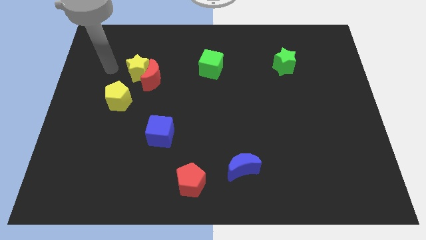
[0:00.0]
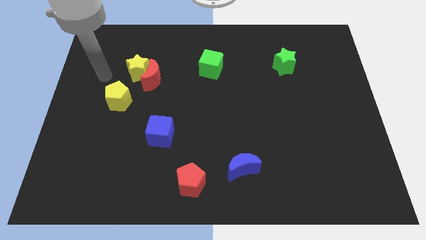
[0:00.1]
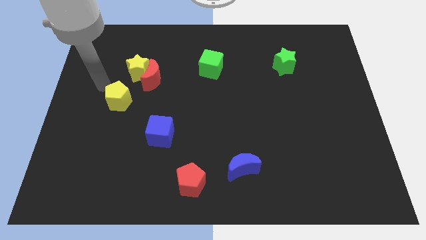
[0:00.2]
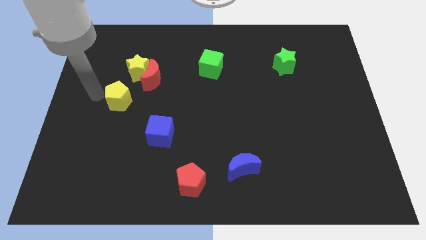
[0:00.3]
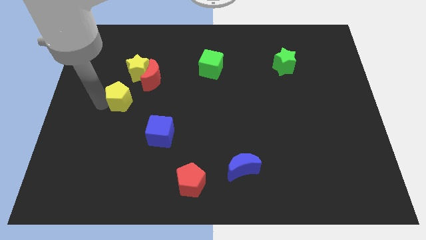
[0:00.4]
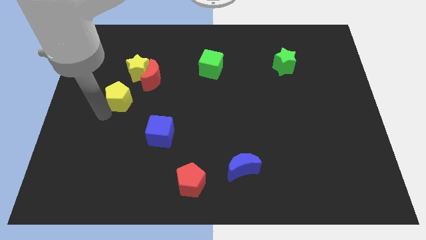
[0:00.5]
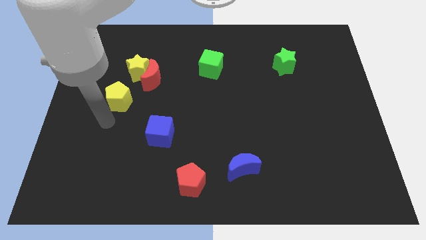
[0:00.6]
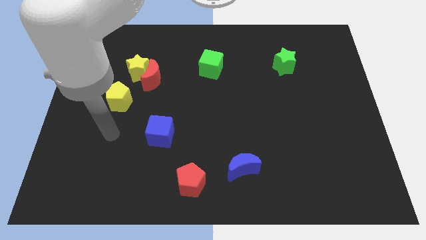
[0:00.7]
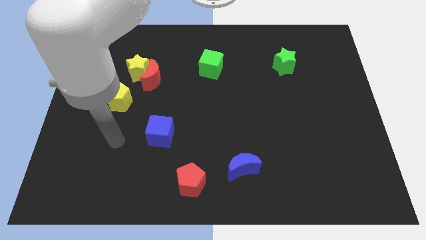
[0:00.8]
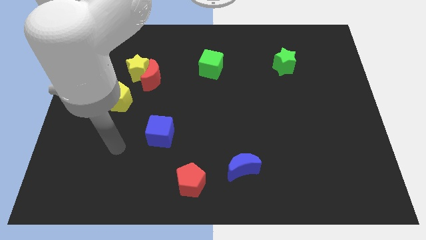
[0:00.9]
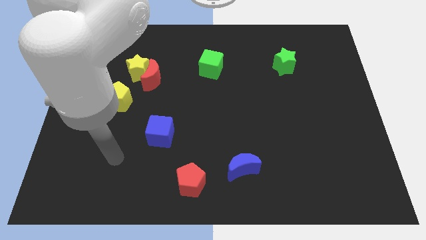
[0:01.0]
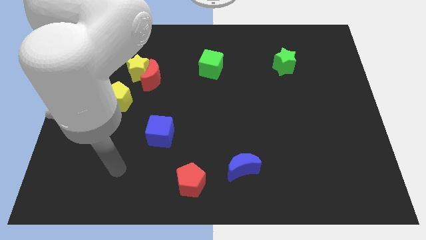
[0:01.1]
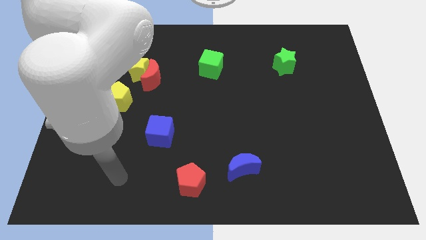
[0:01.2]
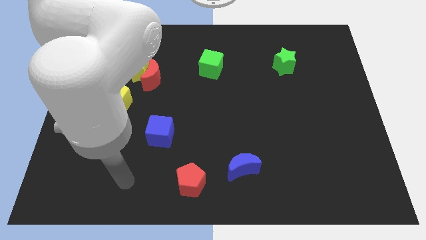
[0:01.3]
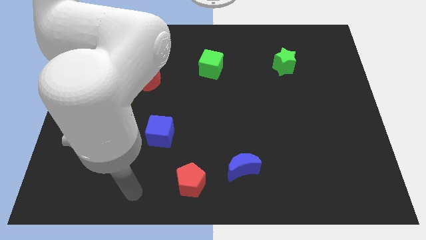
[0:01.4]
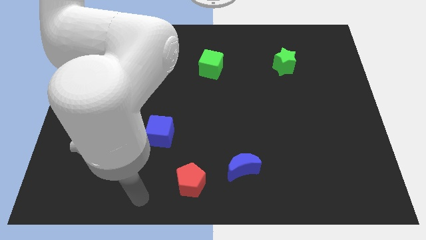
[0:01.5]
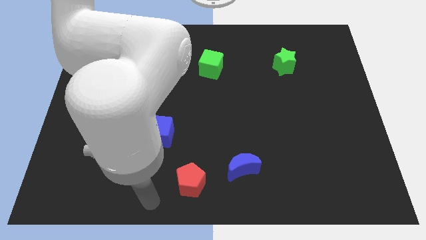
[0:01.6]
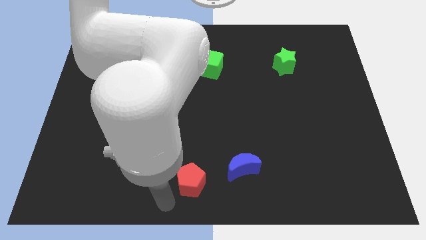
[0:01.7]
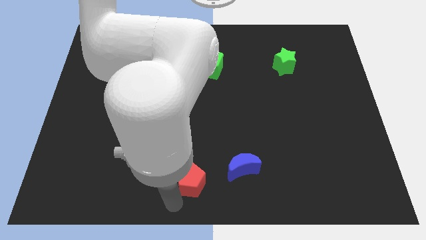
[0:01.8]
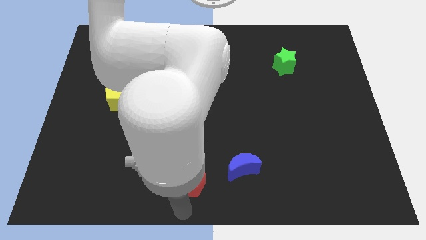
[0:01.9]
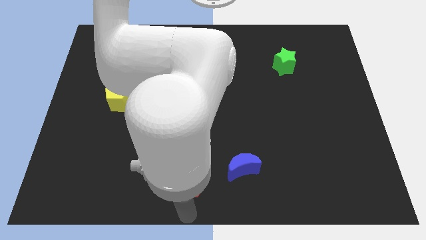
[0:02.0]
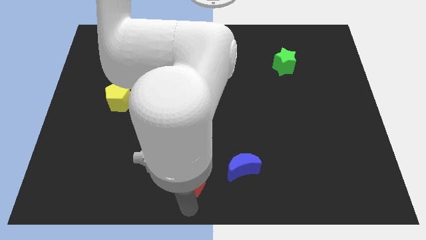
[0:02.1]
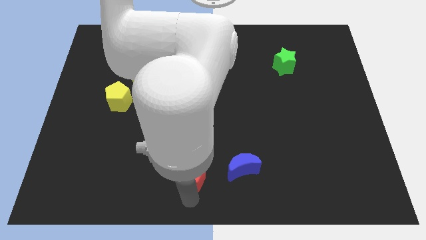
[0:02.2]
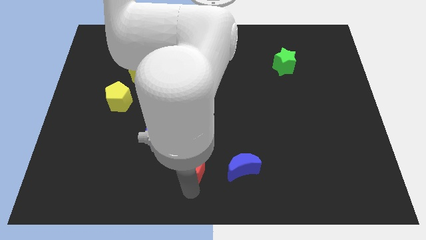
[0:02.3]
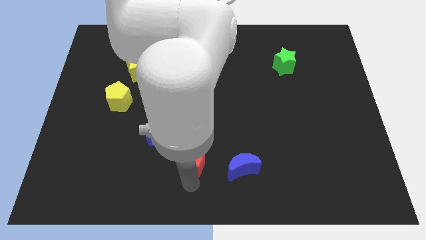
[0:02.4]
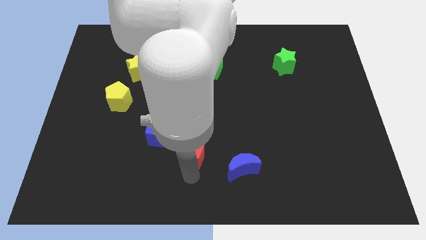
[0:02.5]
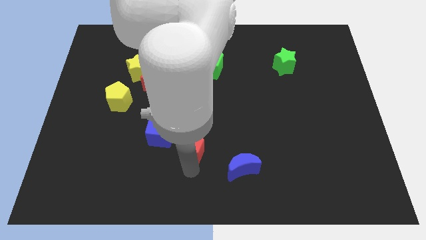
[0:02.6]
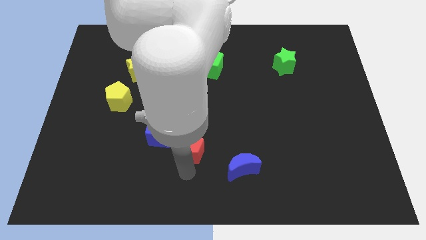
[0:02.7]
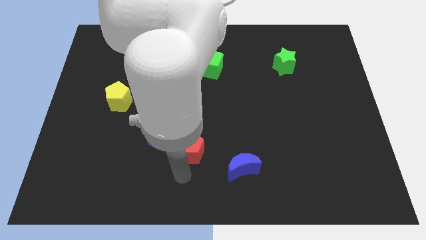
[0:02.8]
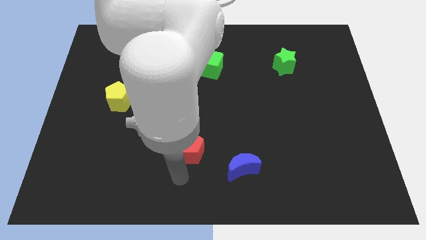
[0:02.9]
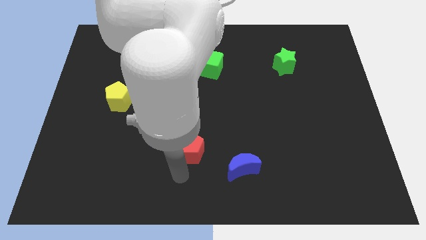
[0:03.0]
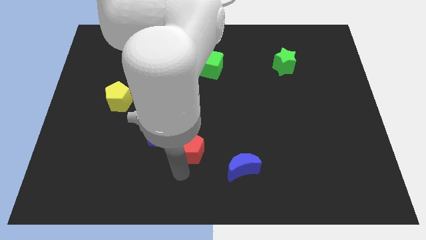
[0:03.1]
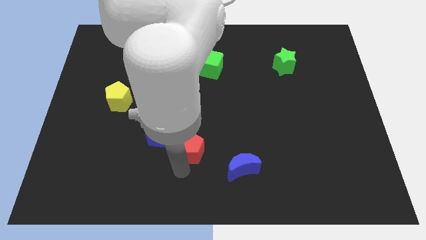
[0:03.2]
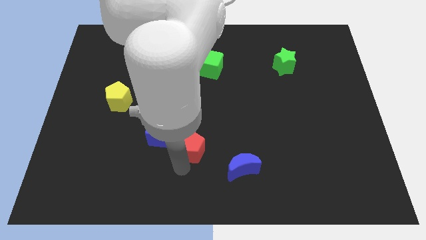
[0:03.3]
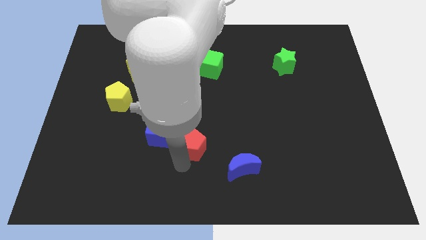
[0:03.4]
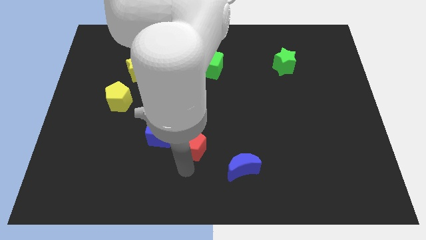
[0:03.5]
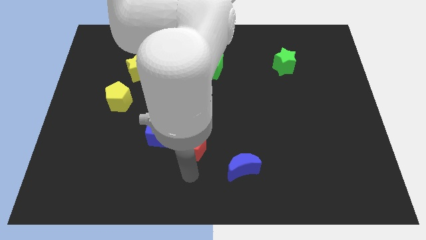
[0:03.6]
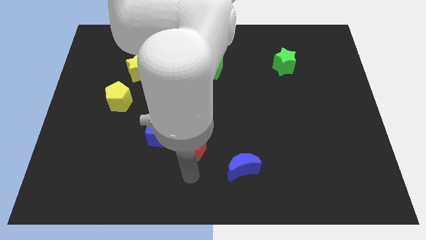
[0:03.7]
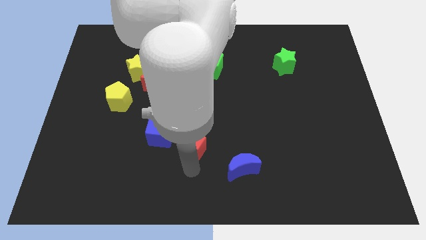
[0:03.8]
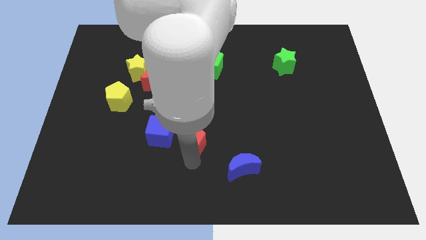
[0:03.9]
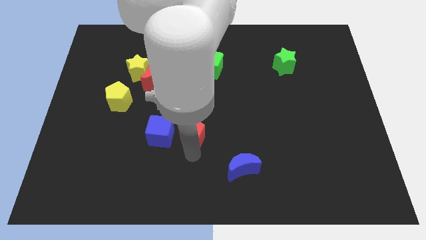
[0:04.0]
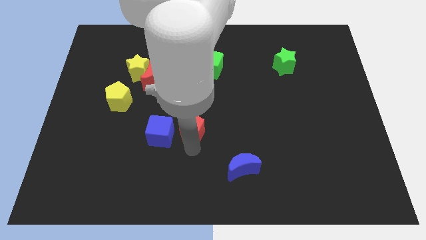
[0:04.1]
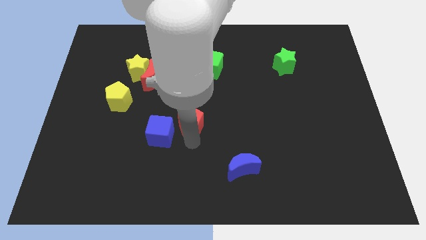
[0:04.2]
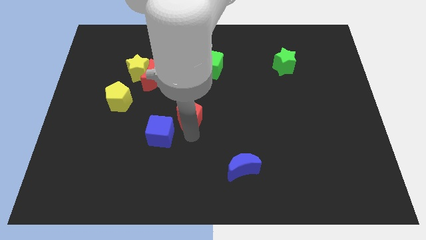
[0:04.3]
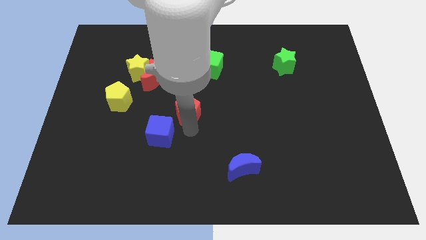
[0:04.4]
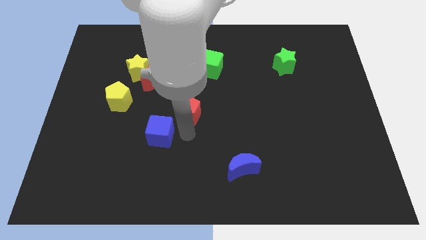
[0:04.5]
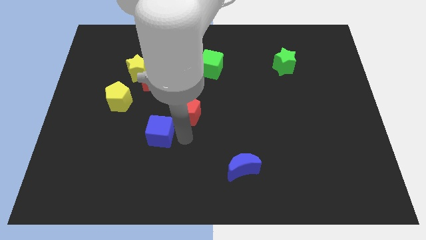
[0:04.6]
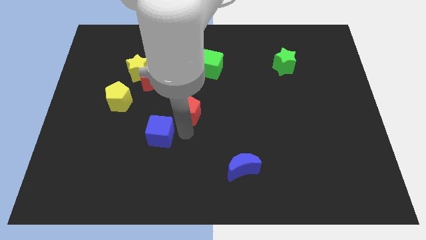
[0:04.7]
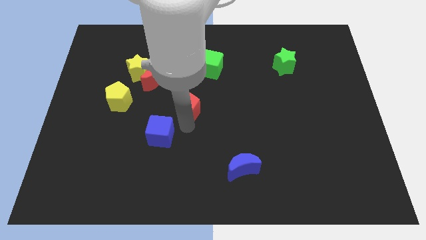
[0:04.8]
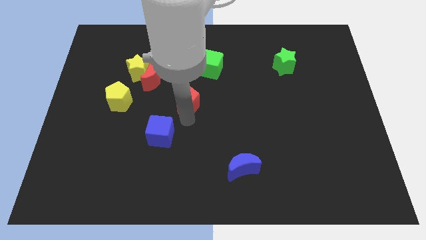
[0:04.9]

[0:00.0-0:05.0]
slide the red pentagon upwards

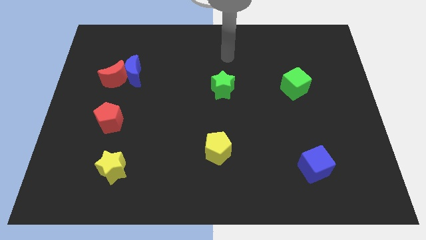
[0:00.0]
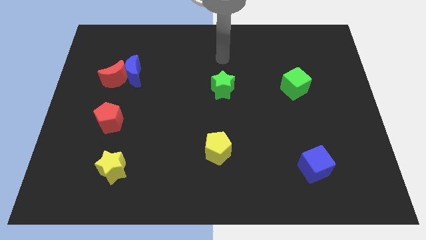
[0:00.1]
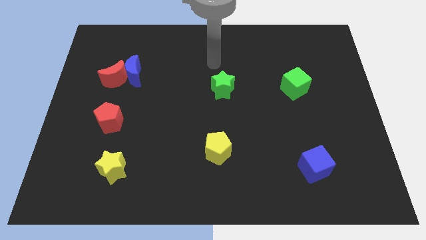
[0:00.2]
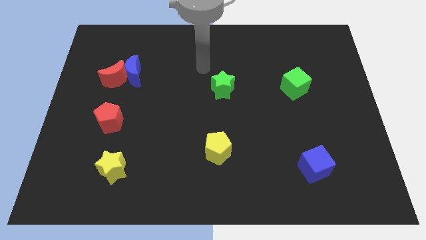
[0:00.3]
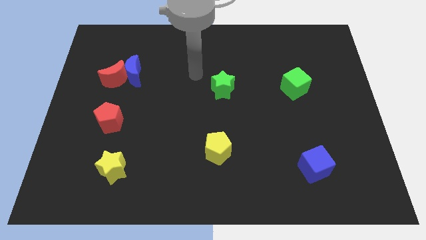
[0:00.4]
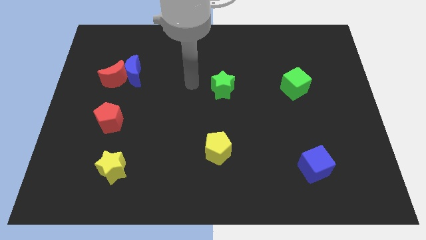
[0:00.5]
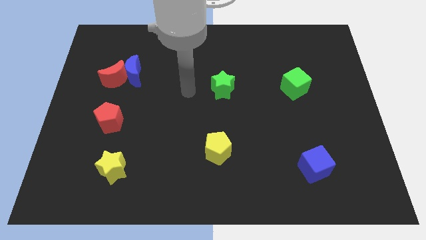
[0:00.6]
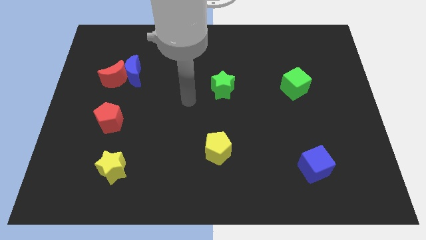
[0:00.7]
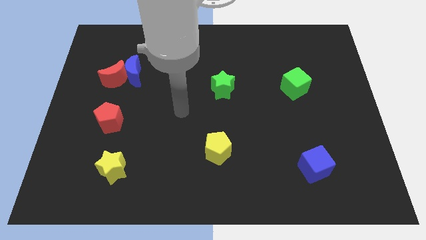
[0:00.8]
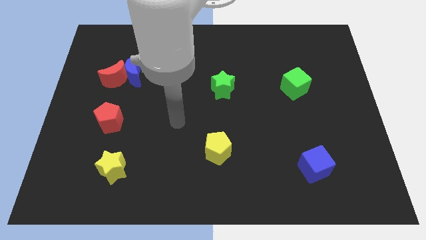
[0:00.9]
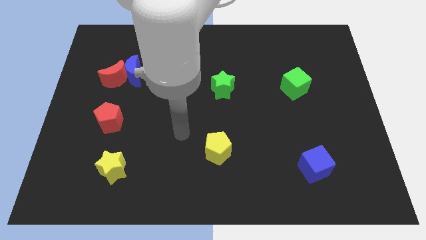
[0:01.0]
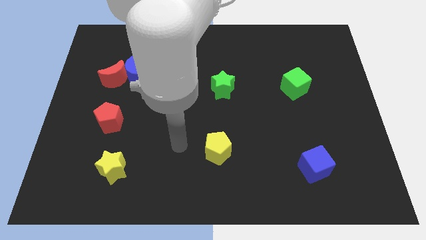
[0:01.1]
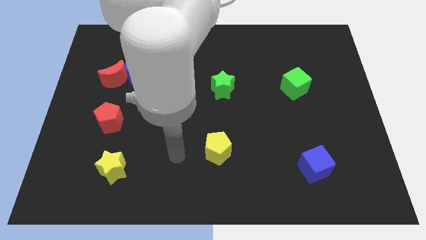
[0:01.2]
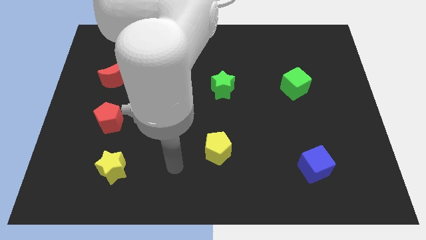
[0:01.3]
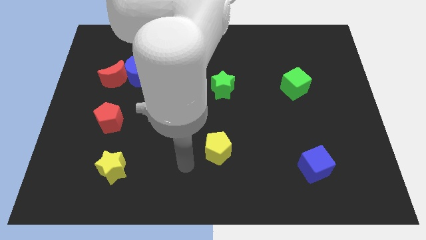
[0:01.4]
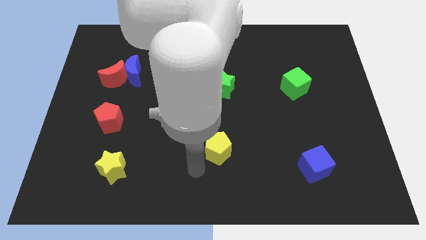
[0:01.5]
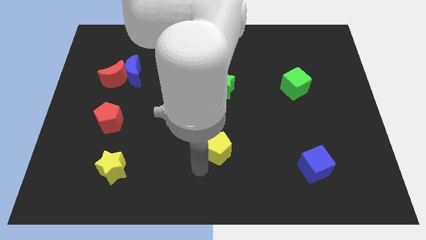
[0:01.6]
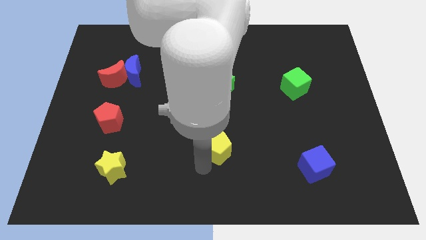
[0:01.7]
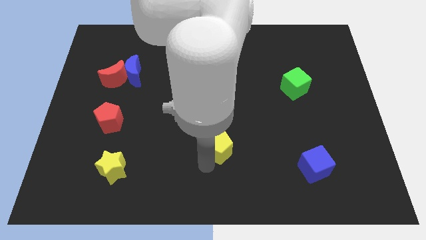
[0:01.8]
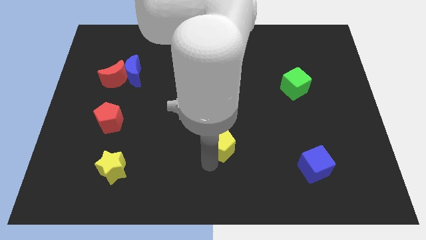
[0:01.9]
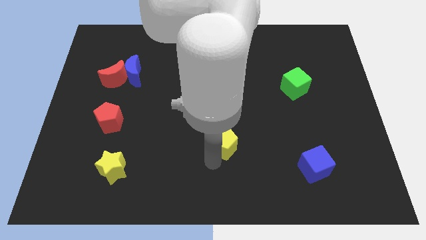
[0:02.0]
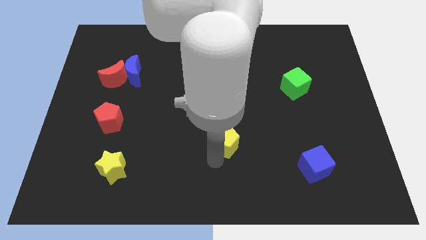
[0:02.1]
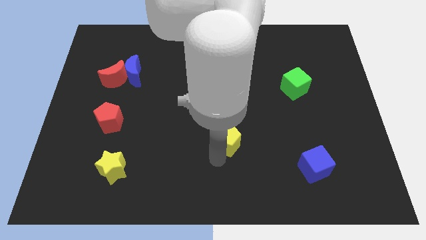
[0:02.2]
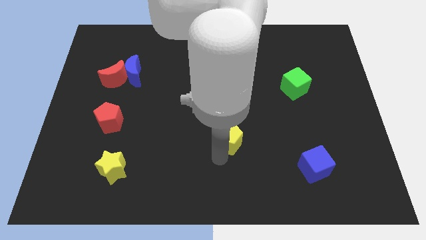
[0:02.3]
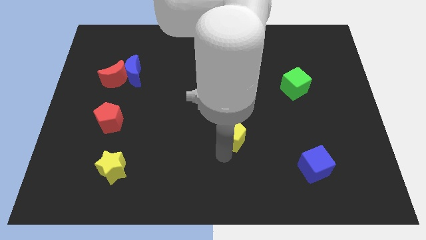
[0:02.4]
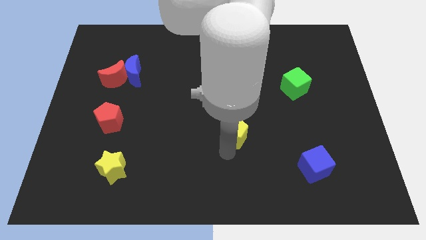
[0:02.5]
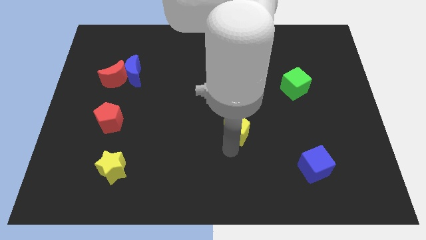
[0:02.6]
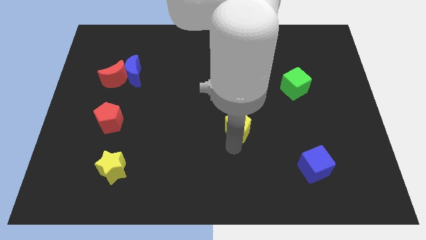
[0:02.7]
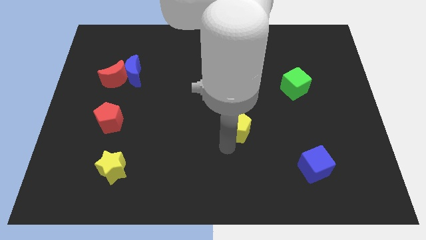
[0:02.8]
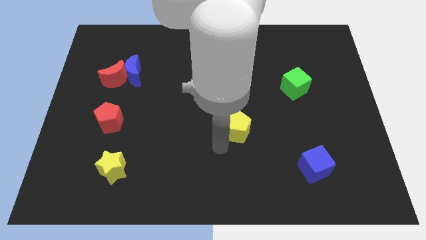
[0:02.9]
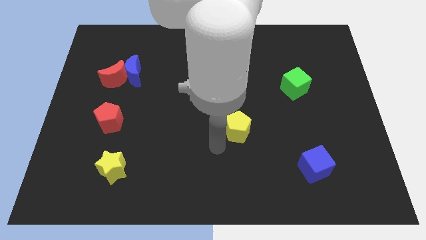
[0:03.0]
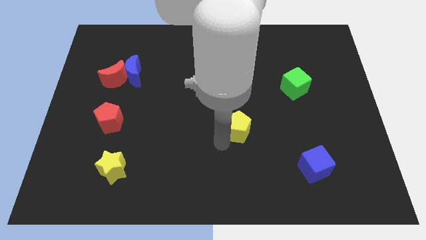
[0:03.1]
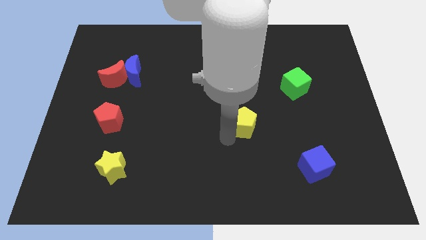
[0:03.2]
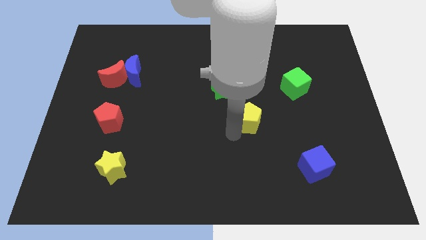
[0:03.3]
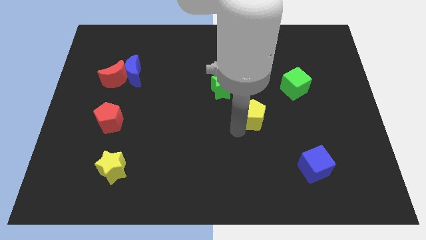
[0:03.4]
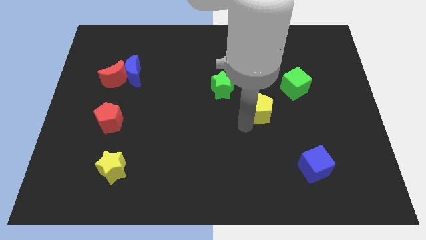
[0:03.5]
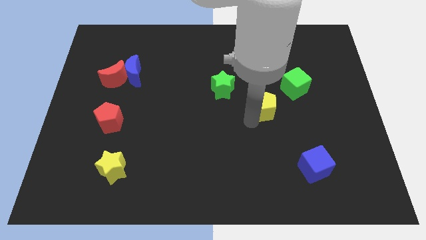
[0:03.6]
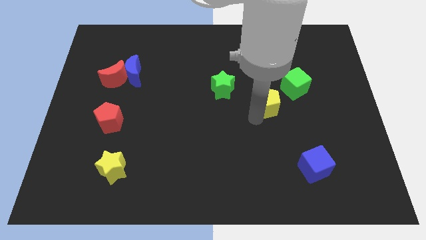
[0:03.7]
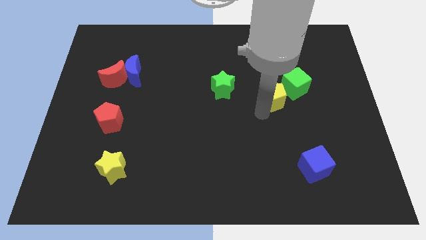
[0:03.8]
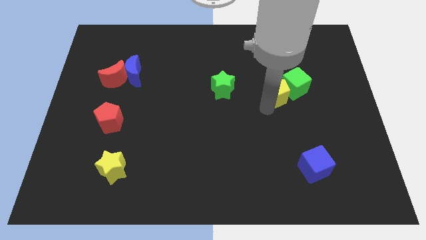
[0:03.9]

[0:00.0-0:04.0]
slide the yellow pentagon upwards and to the right
